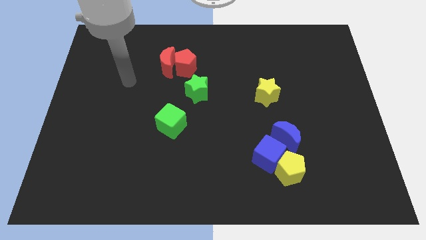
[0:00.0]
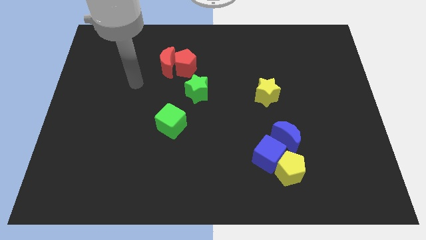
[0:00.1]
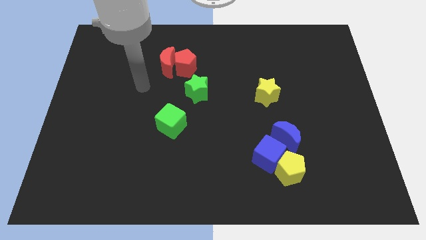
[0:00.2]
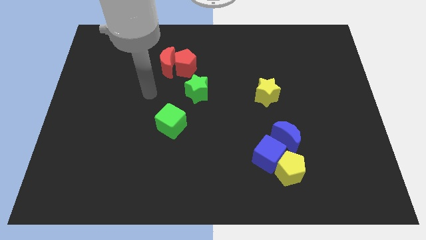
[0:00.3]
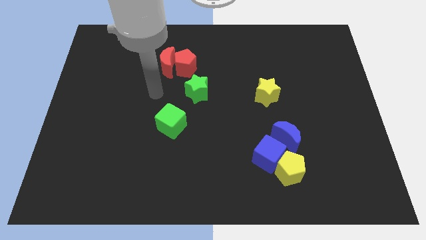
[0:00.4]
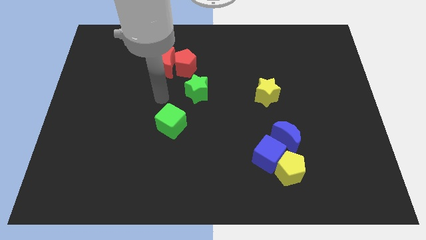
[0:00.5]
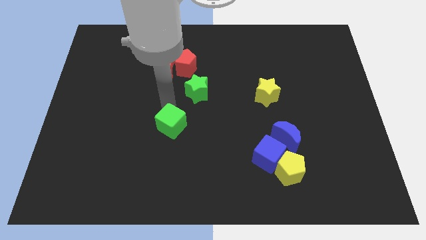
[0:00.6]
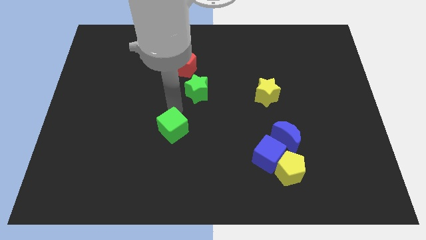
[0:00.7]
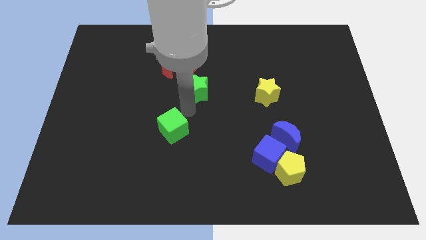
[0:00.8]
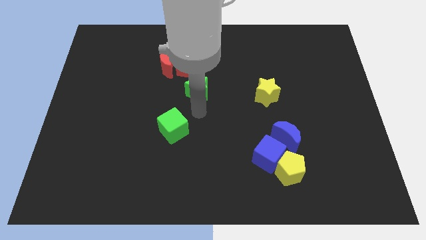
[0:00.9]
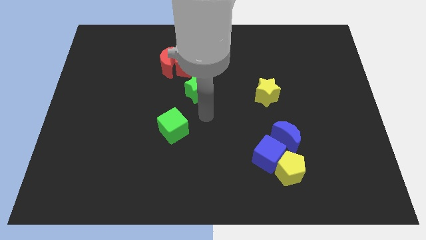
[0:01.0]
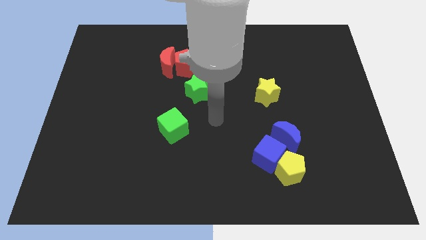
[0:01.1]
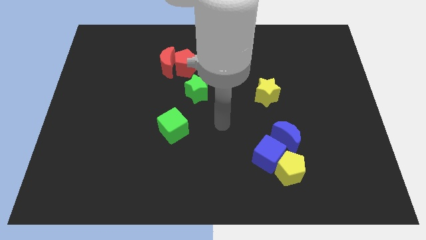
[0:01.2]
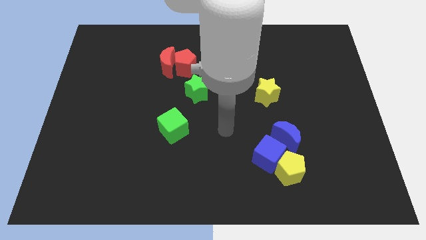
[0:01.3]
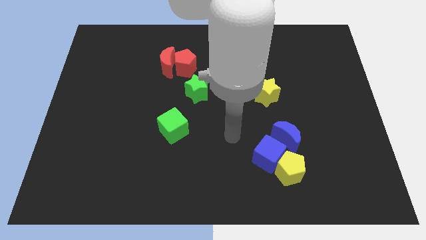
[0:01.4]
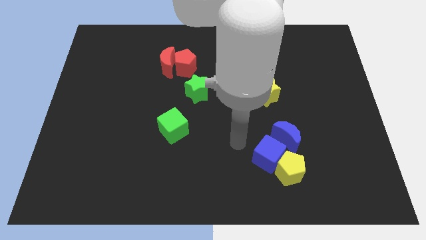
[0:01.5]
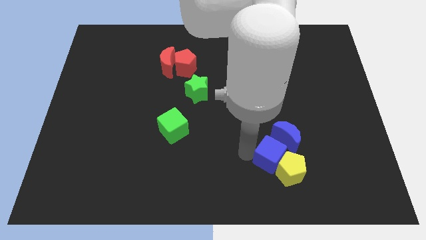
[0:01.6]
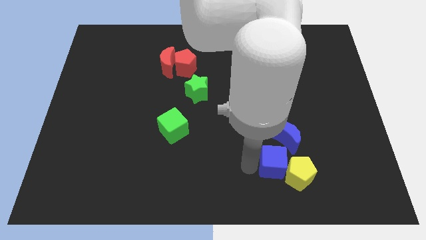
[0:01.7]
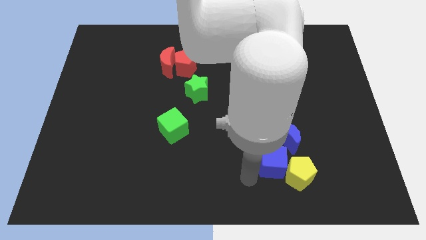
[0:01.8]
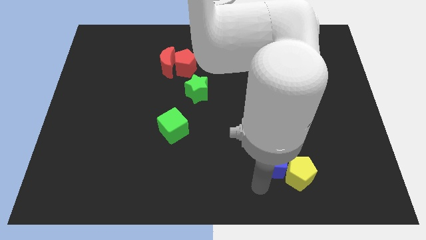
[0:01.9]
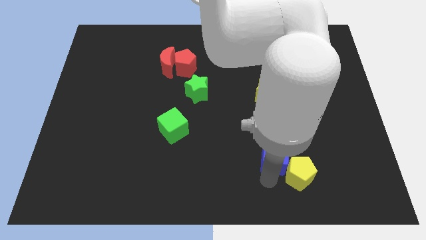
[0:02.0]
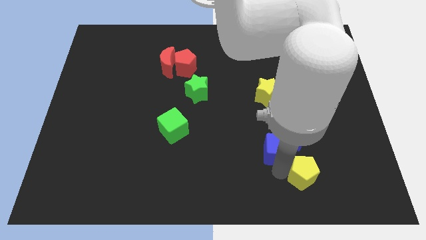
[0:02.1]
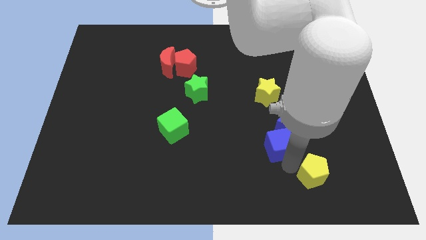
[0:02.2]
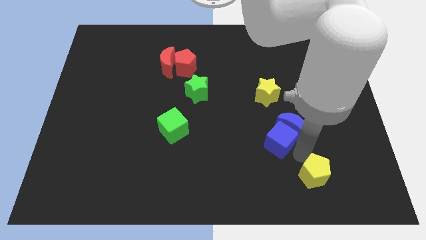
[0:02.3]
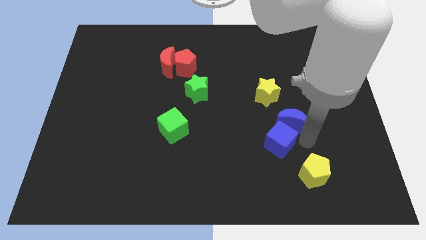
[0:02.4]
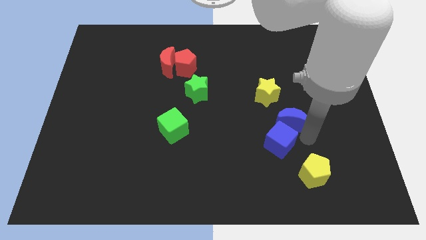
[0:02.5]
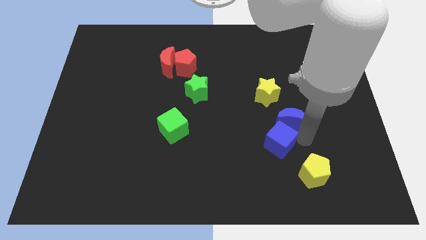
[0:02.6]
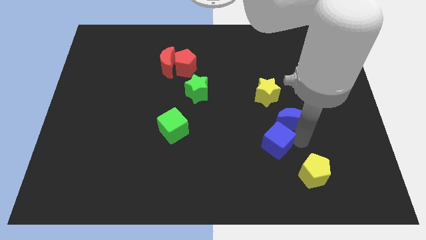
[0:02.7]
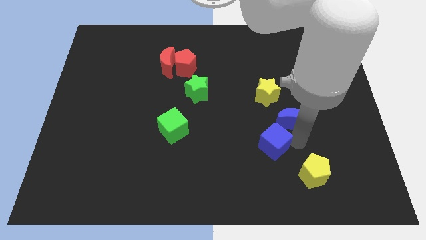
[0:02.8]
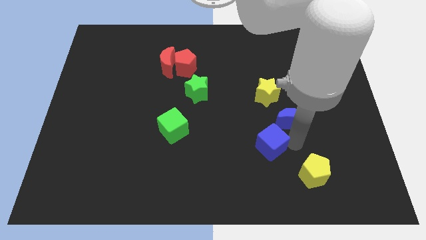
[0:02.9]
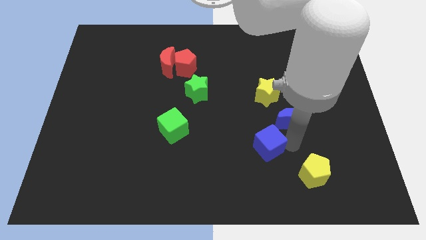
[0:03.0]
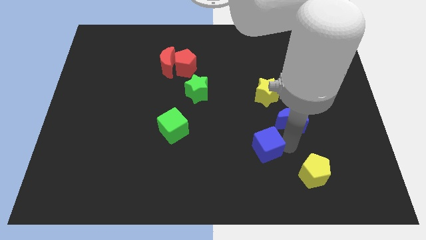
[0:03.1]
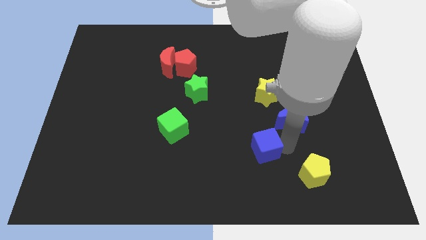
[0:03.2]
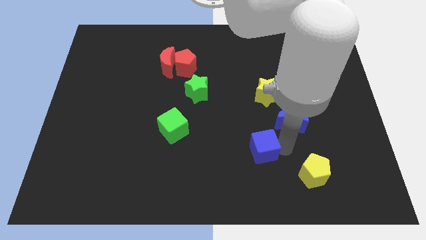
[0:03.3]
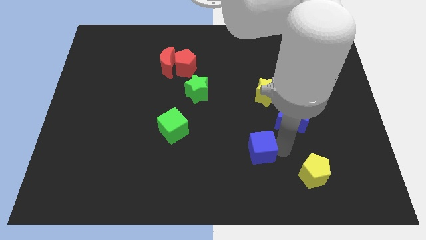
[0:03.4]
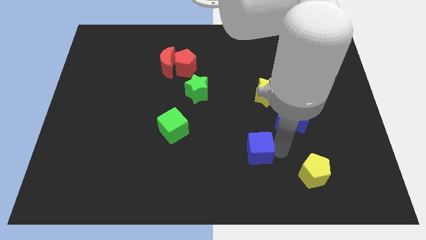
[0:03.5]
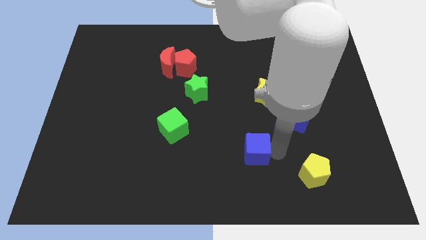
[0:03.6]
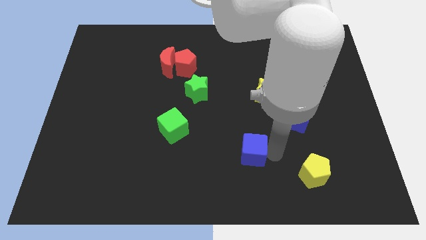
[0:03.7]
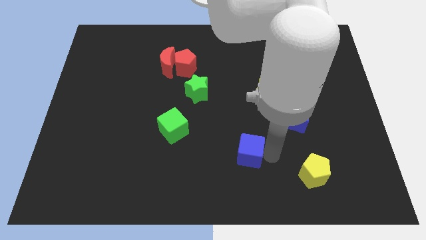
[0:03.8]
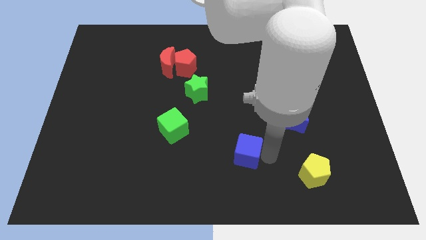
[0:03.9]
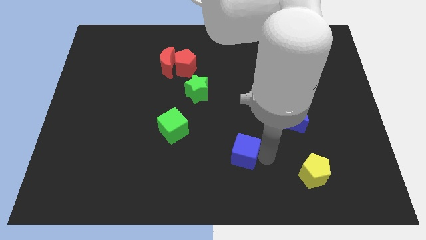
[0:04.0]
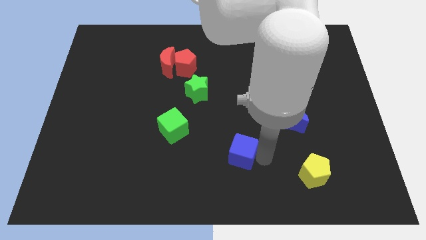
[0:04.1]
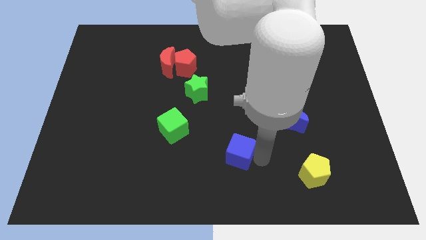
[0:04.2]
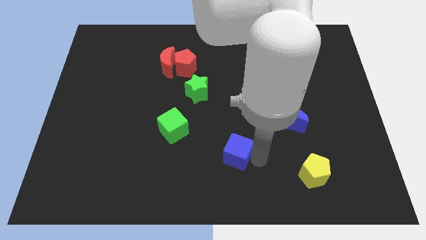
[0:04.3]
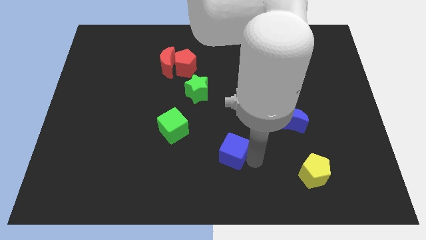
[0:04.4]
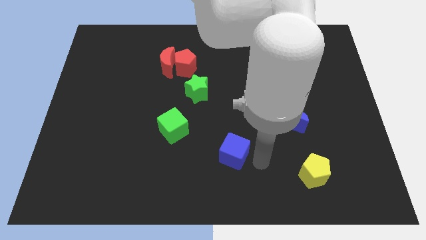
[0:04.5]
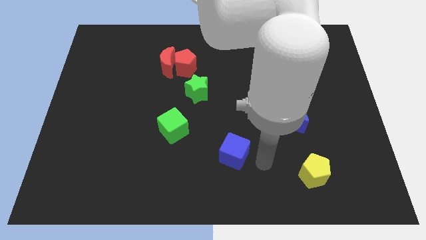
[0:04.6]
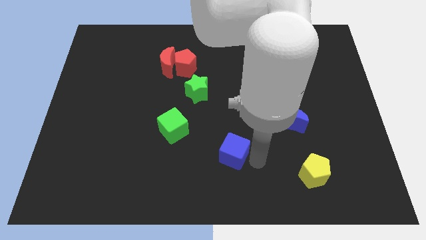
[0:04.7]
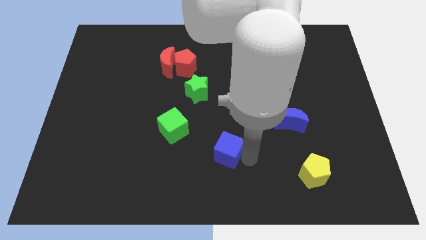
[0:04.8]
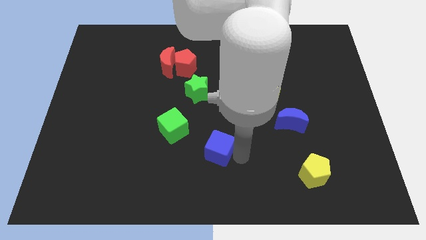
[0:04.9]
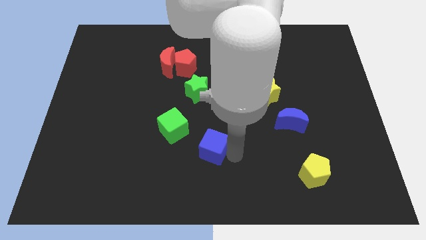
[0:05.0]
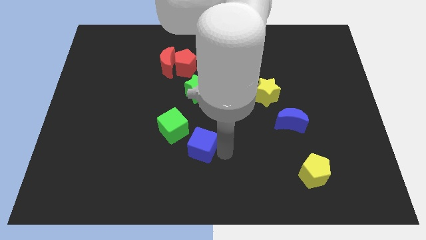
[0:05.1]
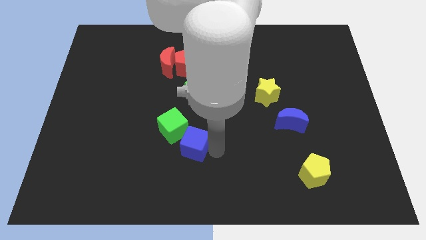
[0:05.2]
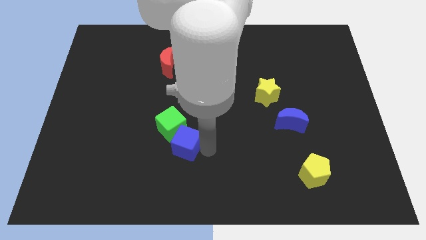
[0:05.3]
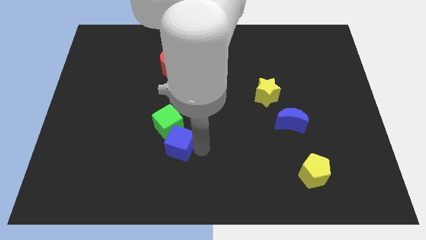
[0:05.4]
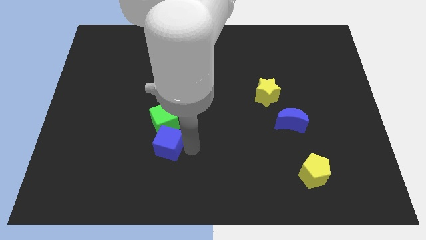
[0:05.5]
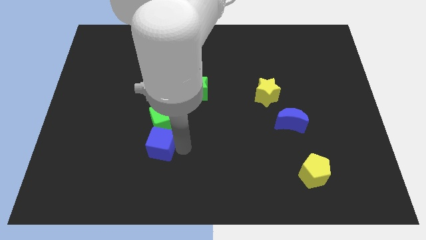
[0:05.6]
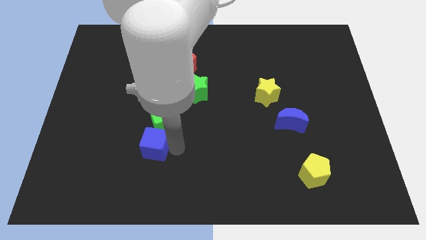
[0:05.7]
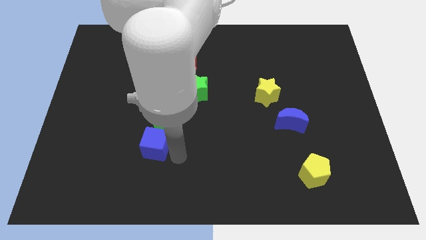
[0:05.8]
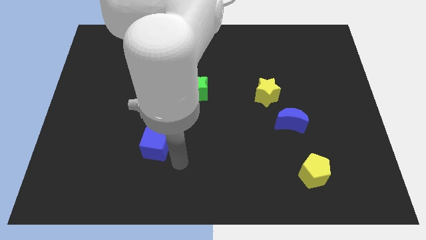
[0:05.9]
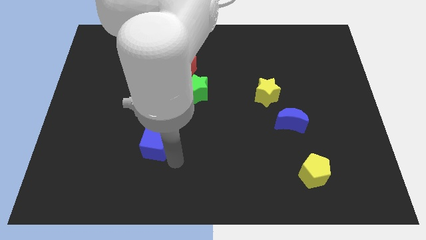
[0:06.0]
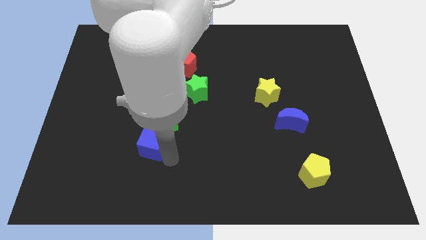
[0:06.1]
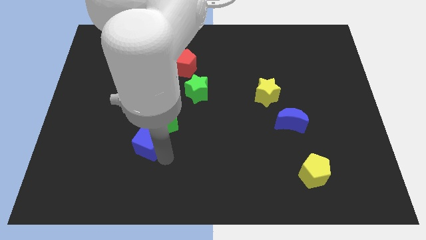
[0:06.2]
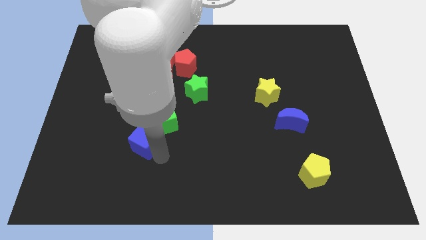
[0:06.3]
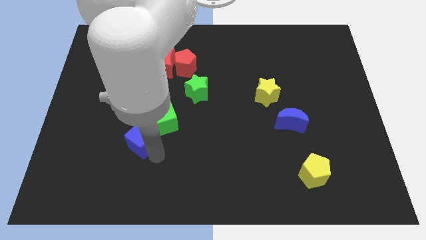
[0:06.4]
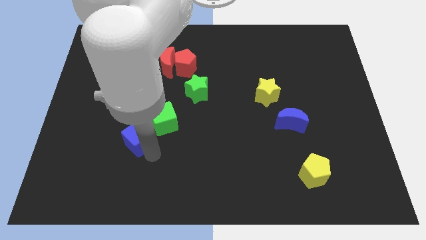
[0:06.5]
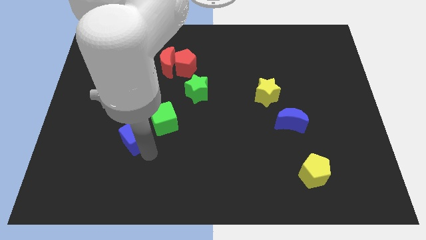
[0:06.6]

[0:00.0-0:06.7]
move the blue cube to the left of the green cube
